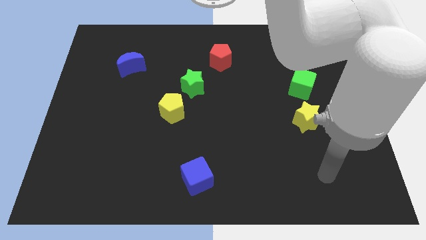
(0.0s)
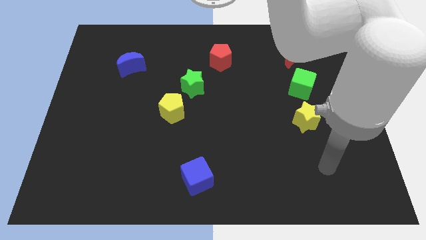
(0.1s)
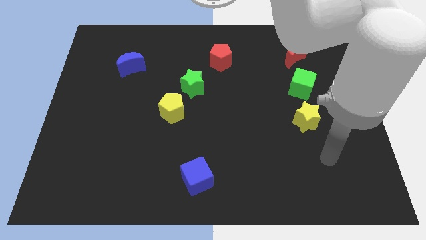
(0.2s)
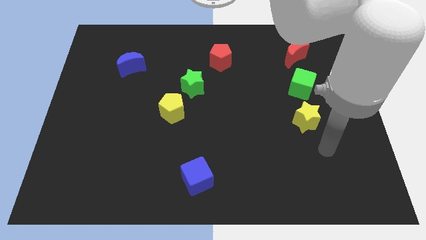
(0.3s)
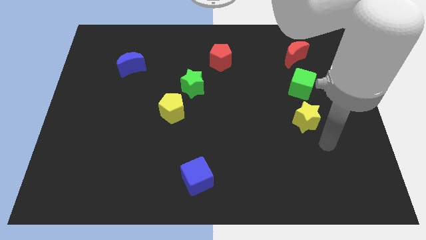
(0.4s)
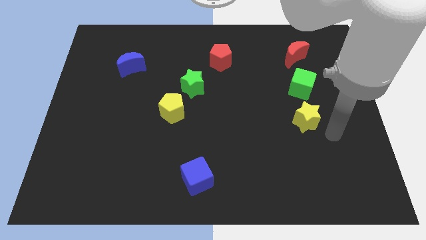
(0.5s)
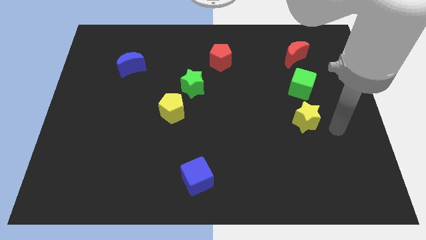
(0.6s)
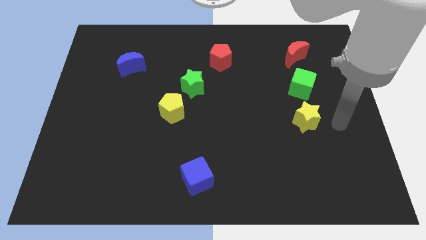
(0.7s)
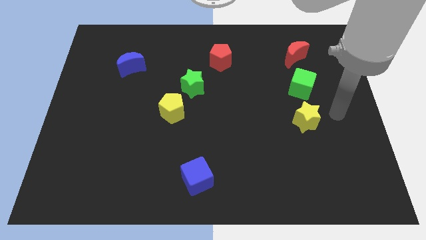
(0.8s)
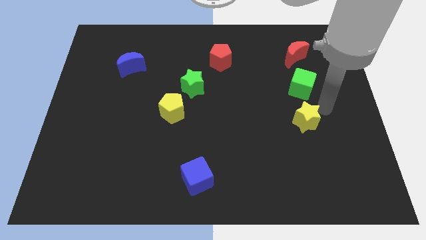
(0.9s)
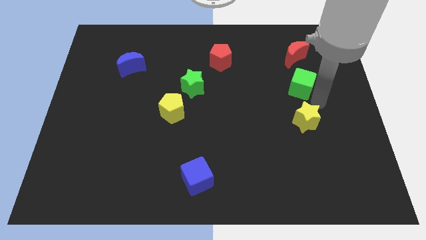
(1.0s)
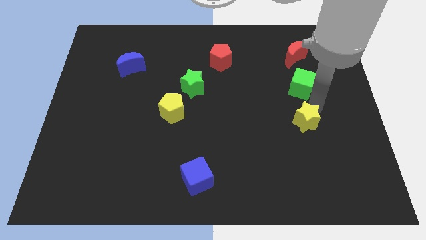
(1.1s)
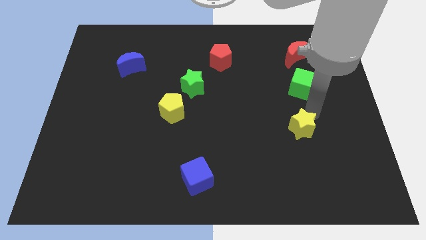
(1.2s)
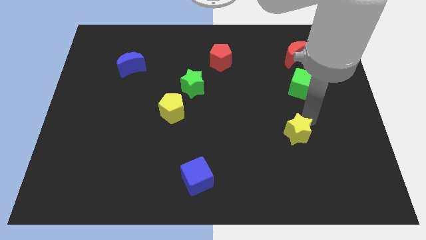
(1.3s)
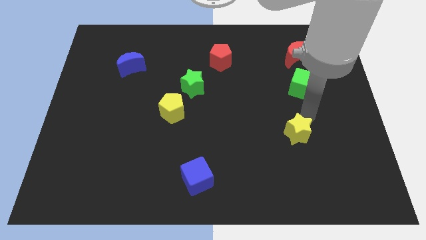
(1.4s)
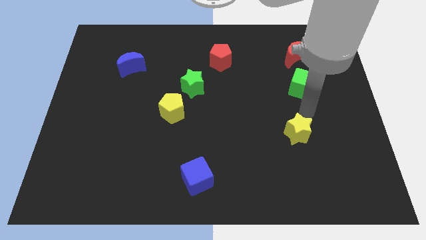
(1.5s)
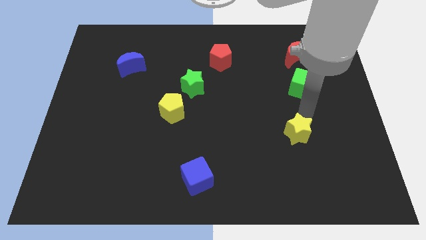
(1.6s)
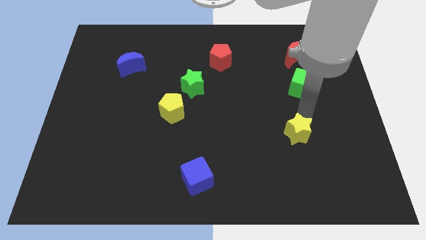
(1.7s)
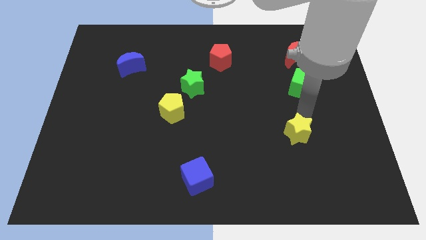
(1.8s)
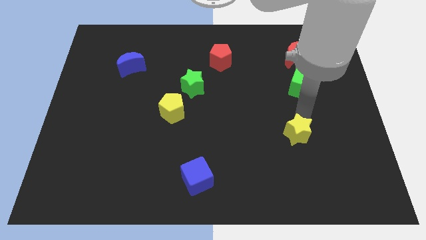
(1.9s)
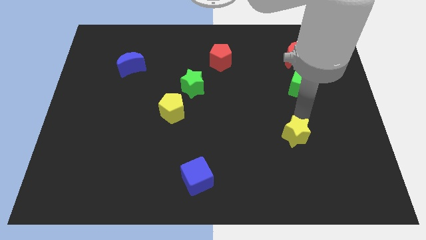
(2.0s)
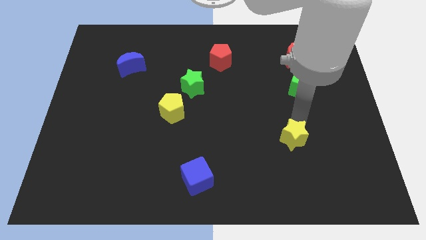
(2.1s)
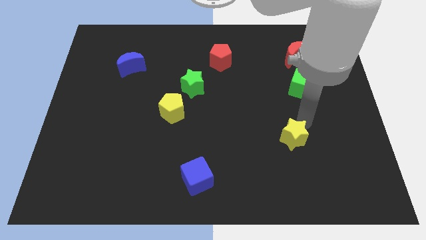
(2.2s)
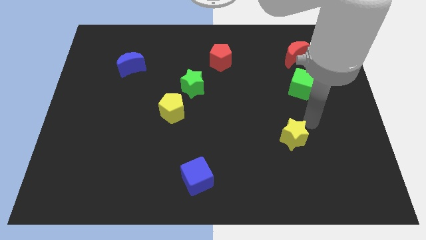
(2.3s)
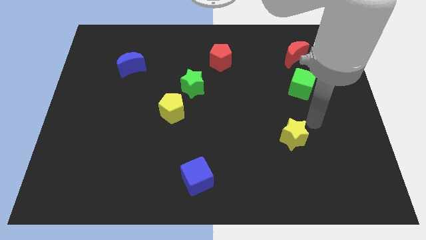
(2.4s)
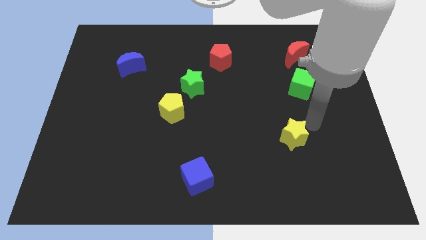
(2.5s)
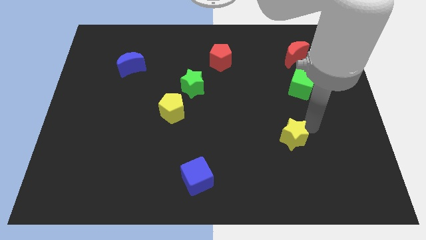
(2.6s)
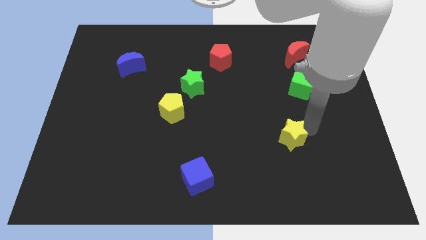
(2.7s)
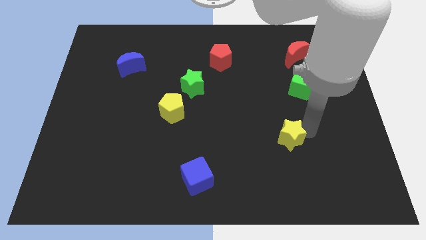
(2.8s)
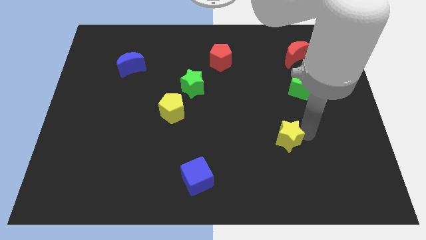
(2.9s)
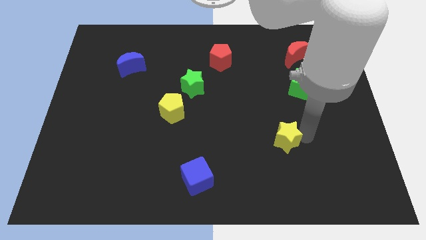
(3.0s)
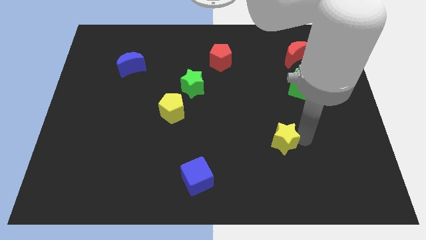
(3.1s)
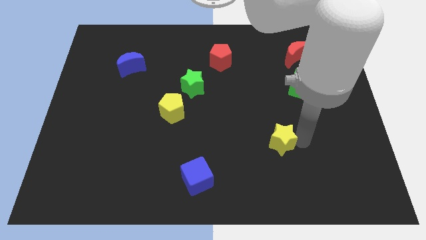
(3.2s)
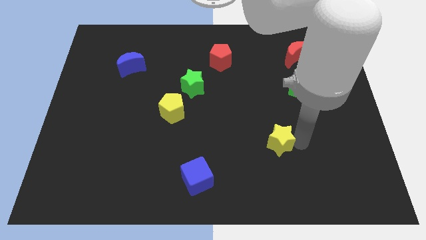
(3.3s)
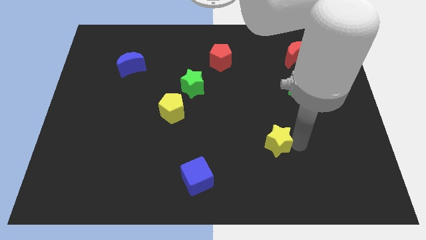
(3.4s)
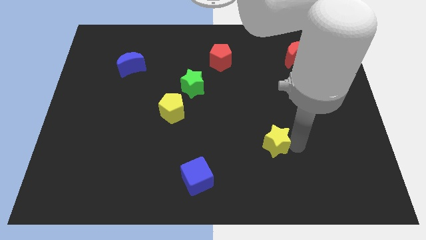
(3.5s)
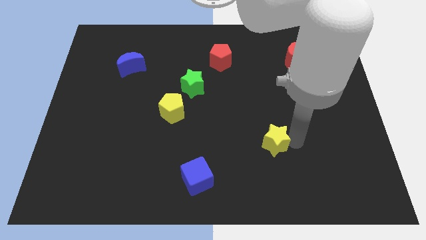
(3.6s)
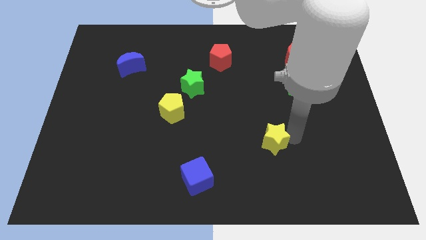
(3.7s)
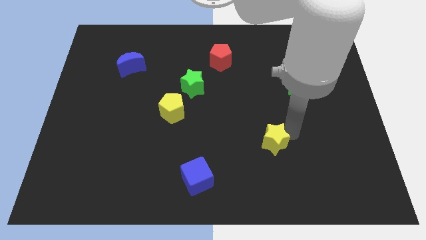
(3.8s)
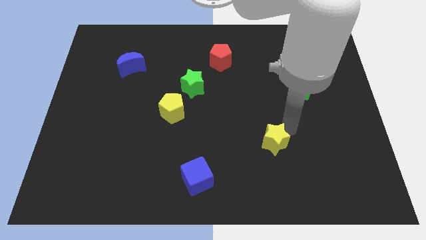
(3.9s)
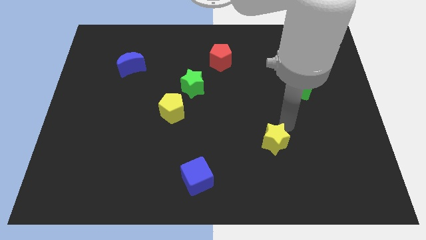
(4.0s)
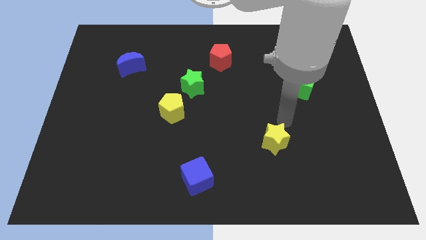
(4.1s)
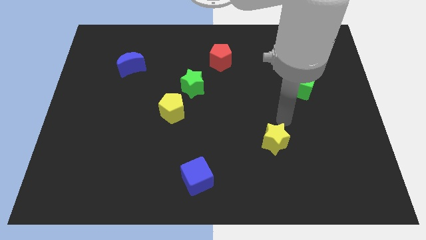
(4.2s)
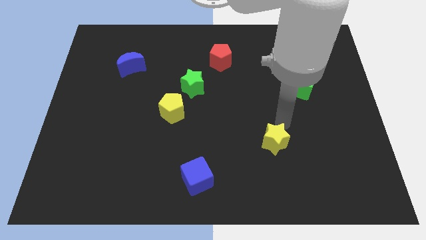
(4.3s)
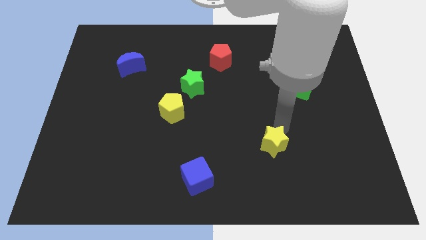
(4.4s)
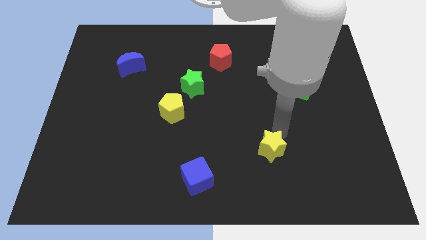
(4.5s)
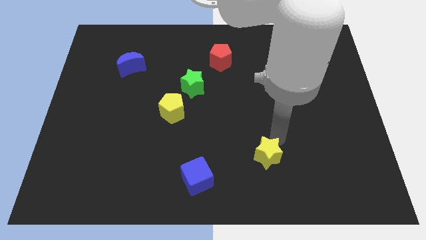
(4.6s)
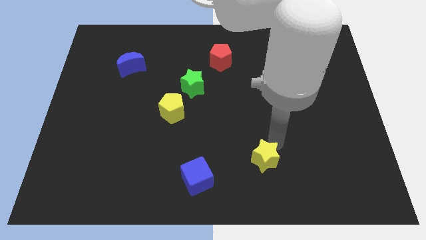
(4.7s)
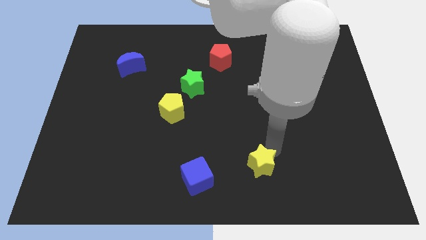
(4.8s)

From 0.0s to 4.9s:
slide the yellow star to the right side of the blue cube

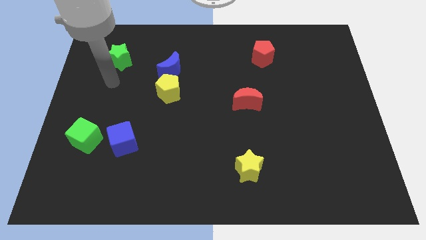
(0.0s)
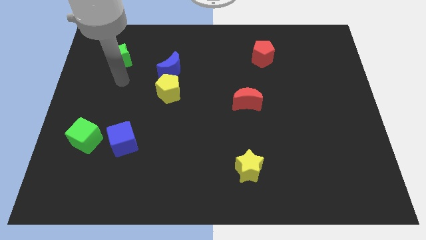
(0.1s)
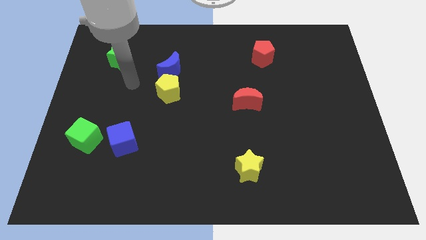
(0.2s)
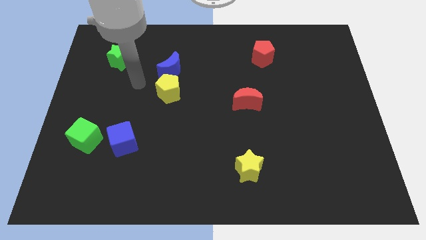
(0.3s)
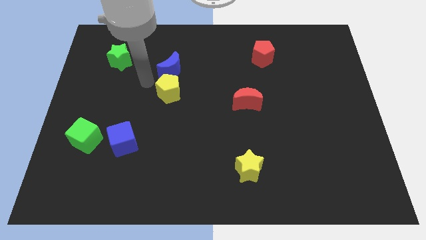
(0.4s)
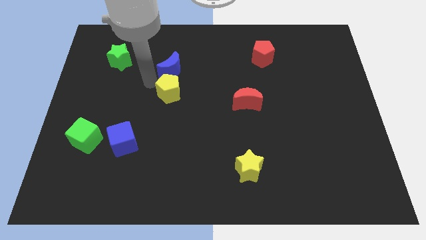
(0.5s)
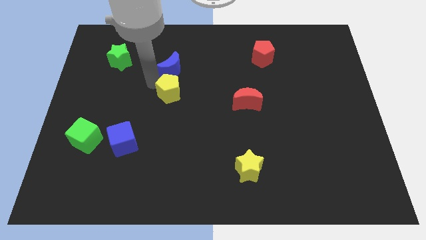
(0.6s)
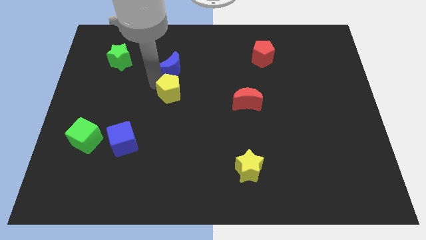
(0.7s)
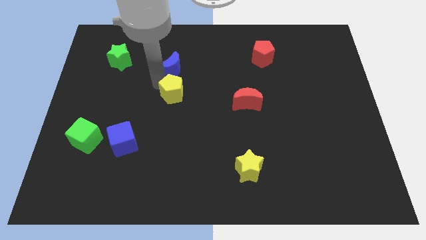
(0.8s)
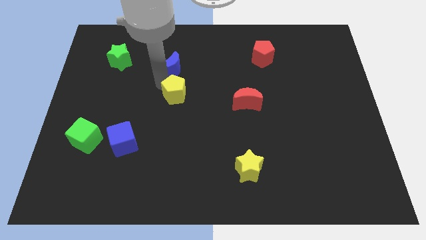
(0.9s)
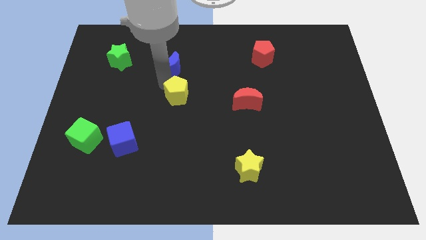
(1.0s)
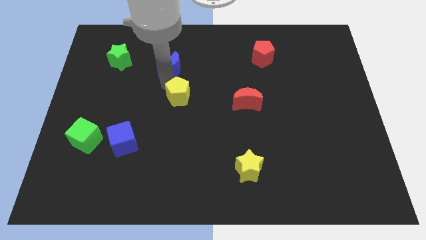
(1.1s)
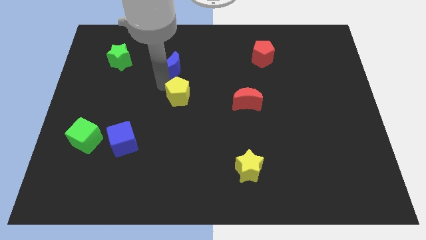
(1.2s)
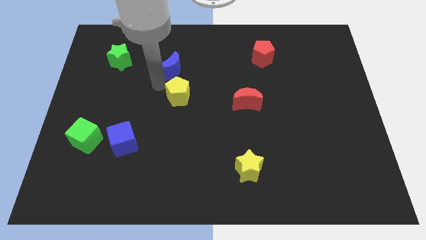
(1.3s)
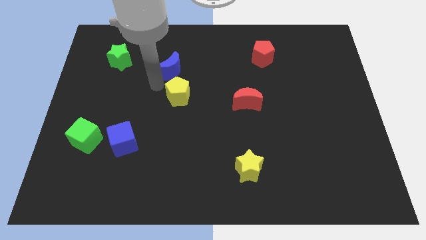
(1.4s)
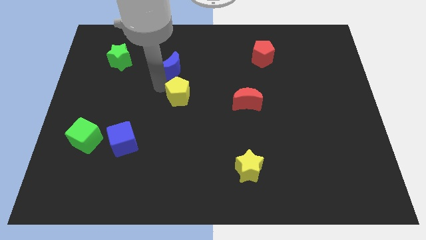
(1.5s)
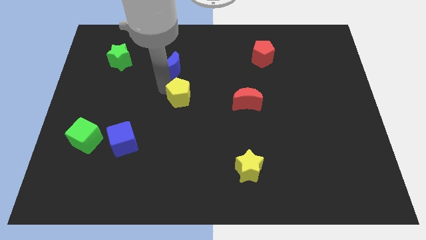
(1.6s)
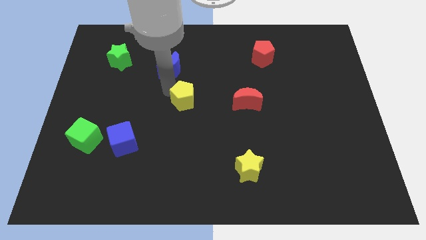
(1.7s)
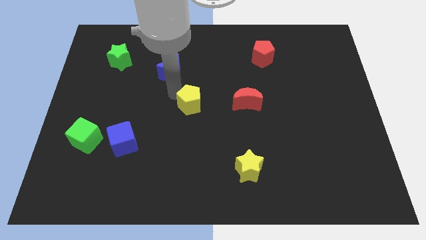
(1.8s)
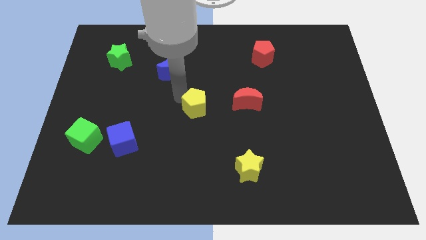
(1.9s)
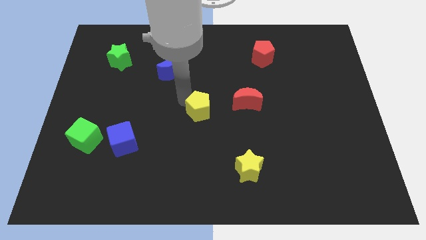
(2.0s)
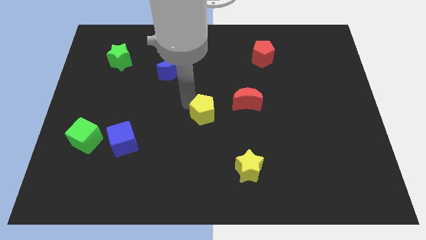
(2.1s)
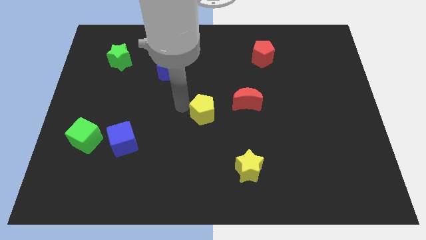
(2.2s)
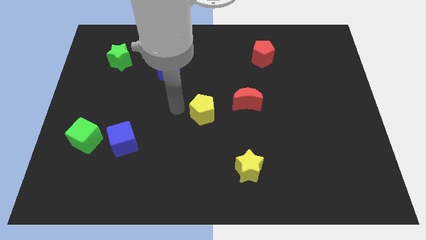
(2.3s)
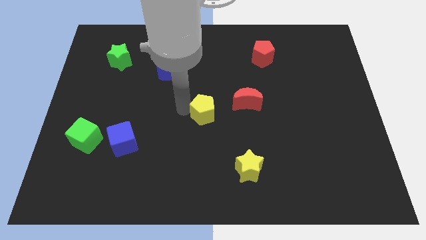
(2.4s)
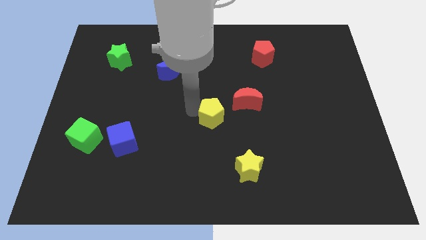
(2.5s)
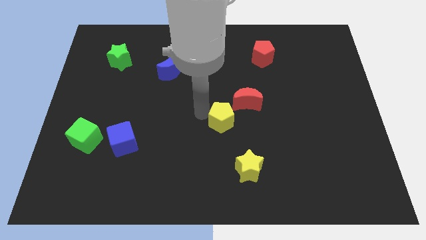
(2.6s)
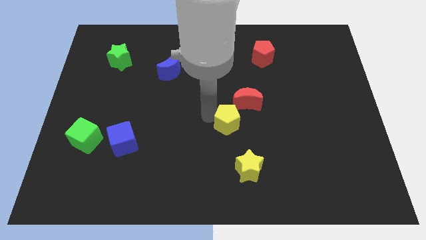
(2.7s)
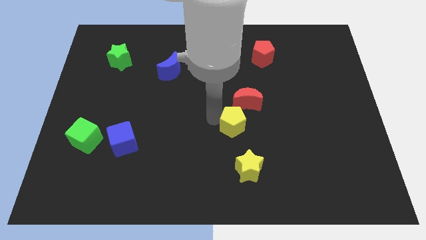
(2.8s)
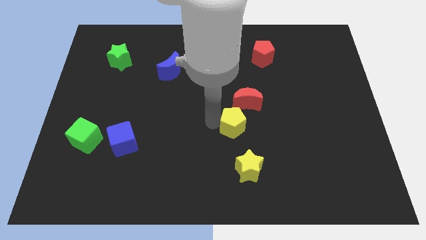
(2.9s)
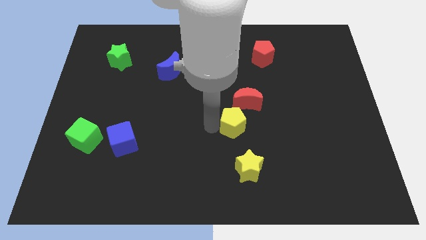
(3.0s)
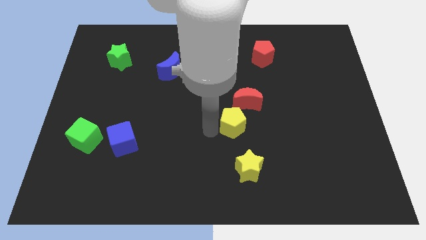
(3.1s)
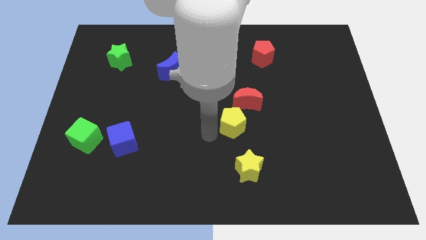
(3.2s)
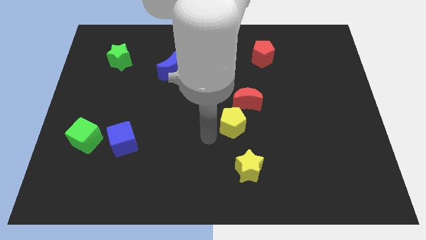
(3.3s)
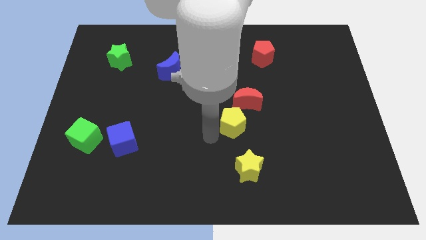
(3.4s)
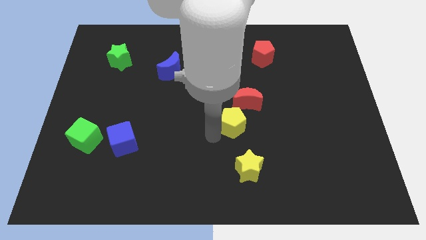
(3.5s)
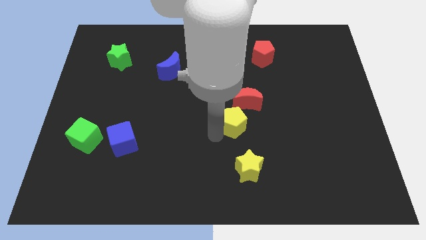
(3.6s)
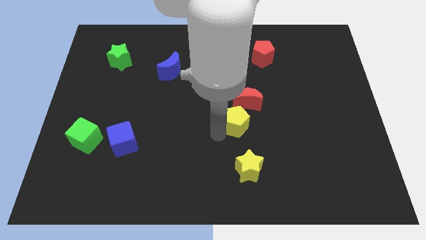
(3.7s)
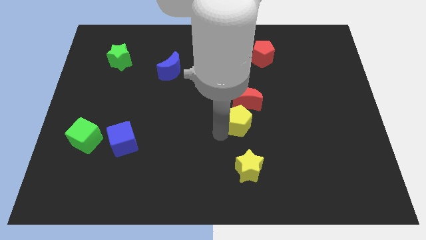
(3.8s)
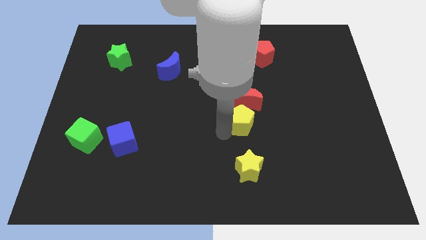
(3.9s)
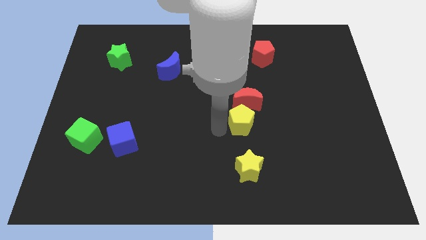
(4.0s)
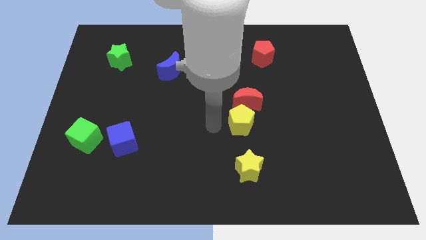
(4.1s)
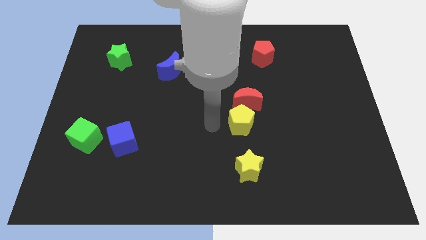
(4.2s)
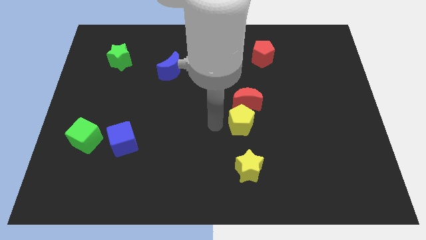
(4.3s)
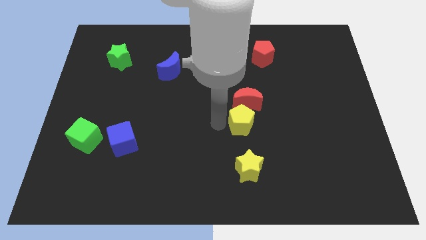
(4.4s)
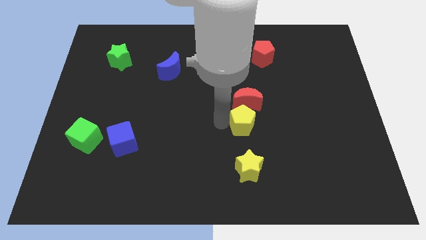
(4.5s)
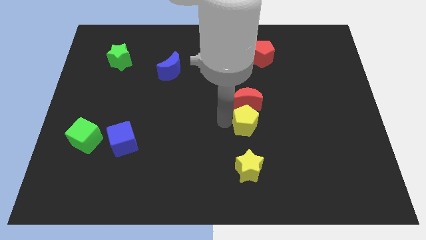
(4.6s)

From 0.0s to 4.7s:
put the yellow pentagon diagonally down and to the right of the red moon
